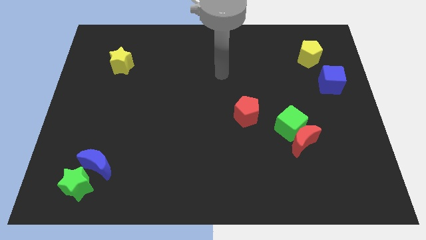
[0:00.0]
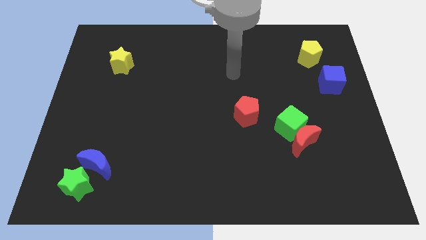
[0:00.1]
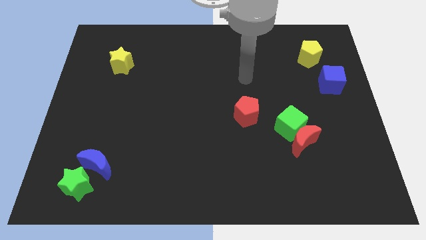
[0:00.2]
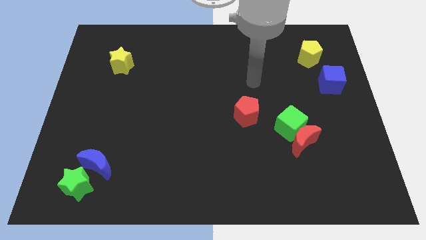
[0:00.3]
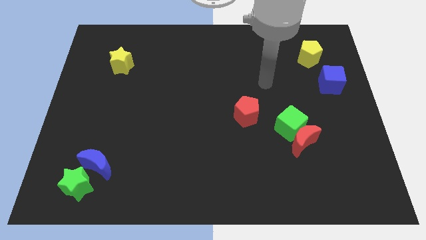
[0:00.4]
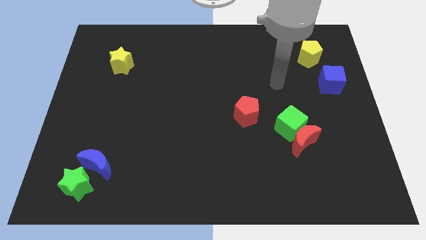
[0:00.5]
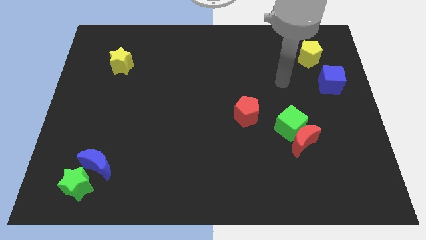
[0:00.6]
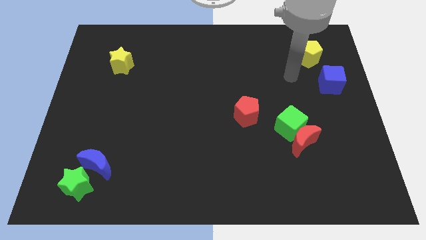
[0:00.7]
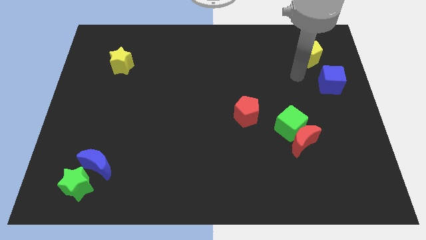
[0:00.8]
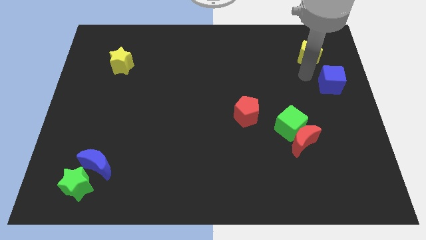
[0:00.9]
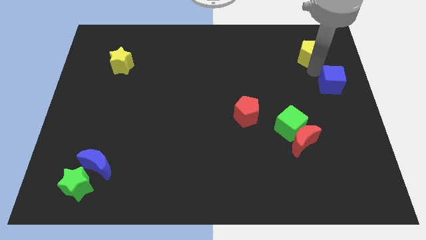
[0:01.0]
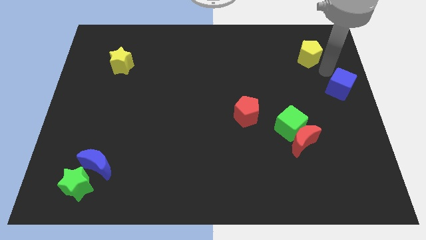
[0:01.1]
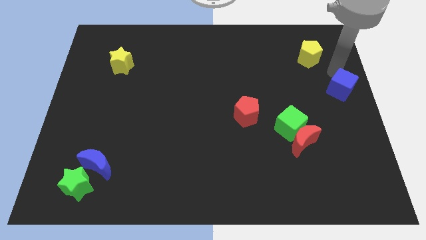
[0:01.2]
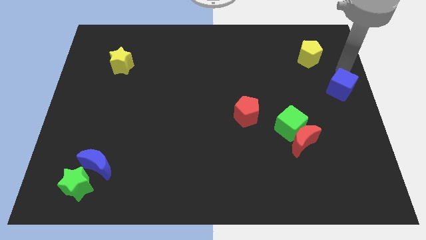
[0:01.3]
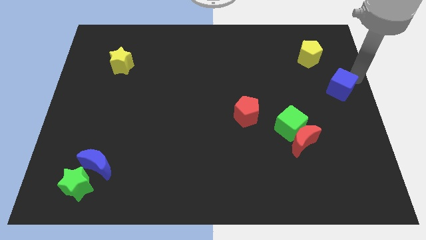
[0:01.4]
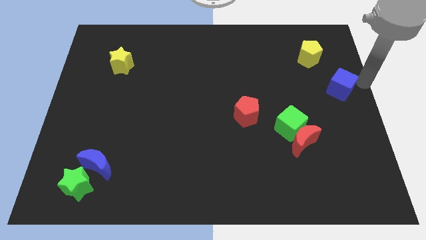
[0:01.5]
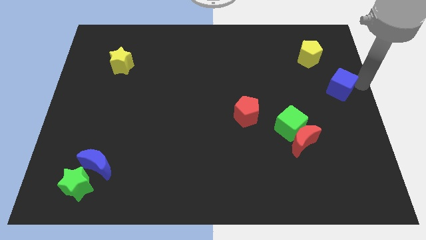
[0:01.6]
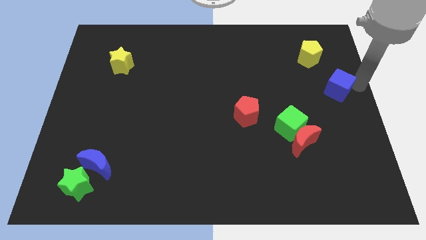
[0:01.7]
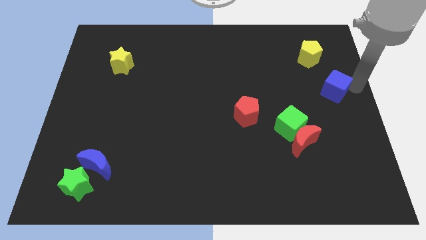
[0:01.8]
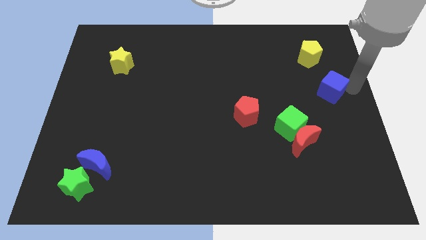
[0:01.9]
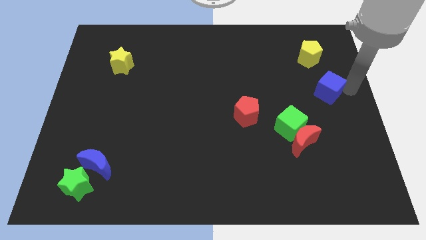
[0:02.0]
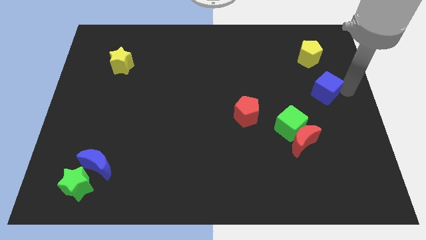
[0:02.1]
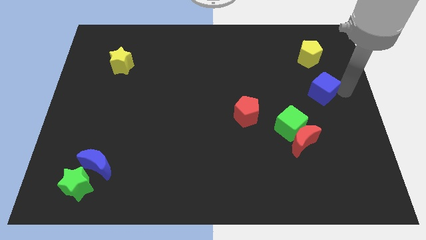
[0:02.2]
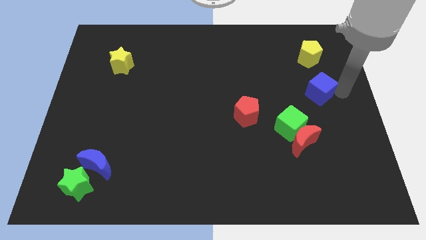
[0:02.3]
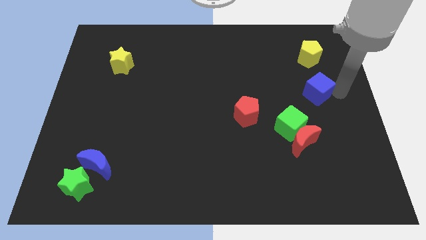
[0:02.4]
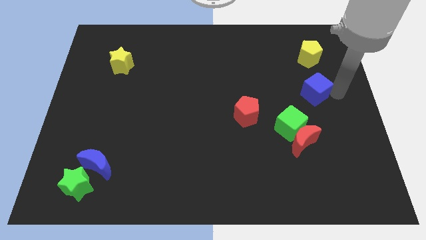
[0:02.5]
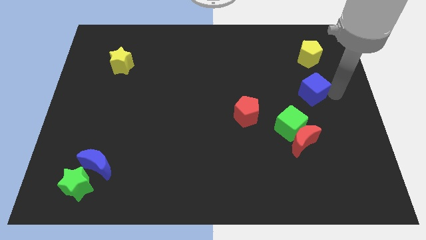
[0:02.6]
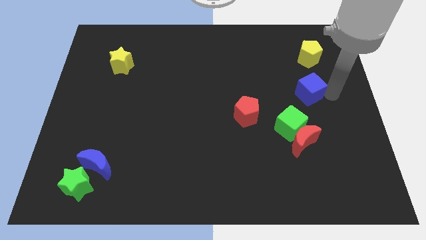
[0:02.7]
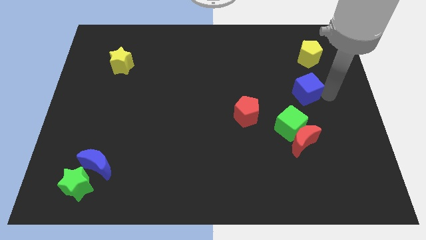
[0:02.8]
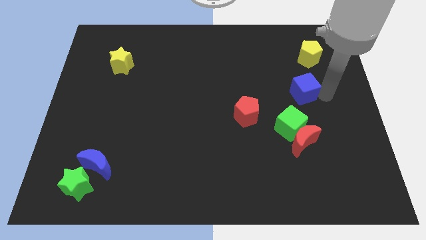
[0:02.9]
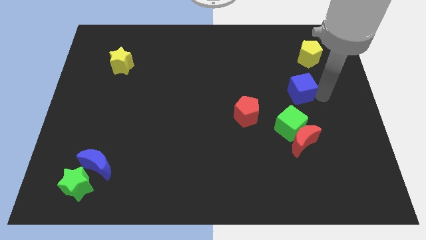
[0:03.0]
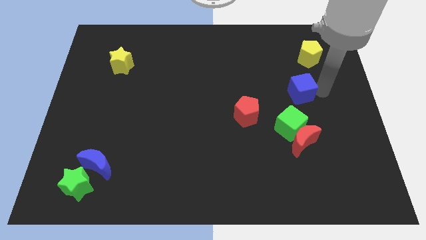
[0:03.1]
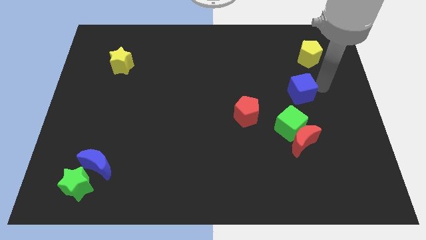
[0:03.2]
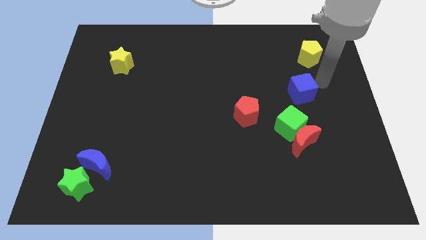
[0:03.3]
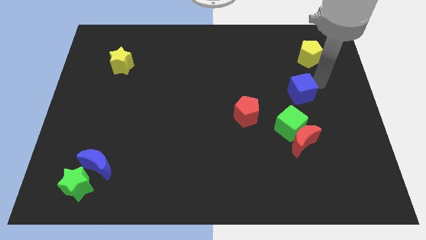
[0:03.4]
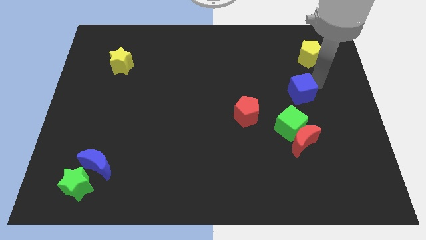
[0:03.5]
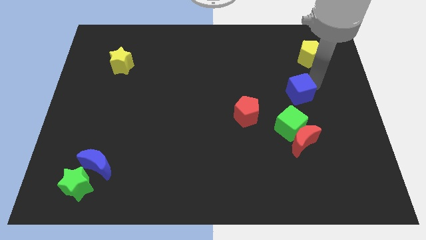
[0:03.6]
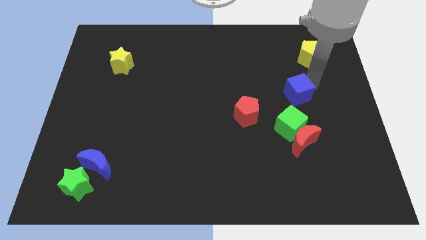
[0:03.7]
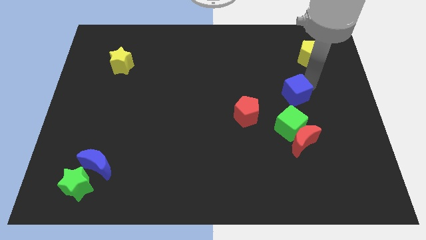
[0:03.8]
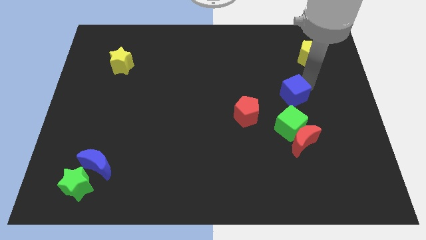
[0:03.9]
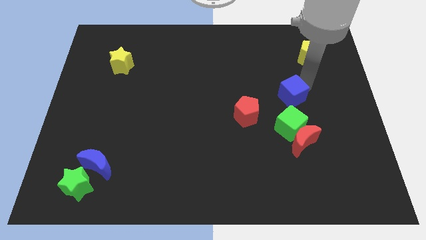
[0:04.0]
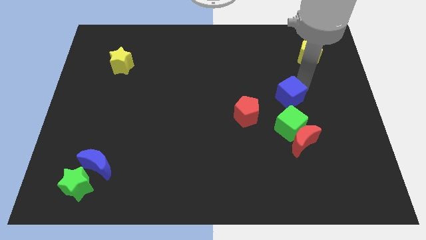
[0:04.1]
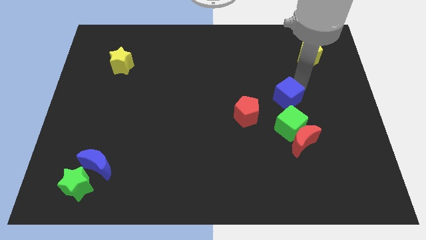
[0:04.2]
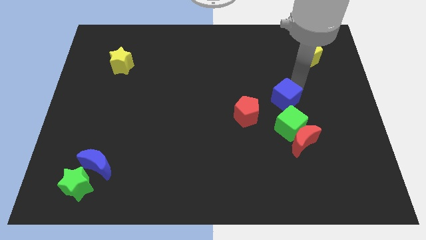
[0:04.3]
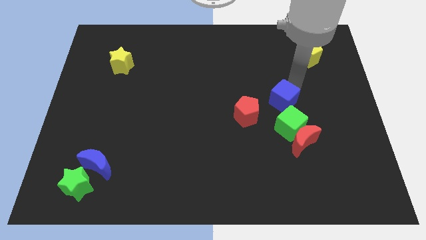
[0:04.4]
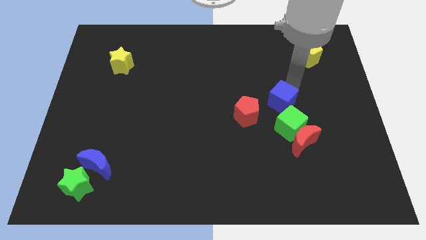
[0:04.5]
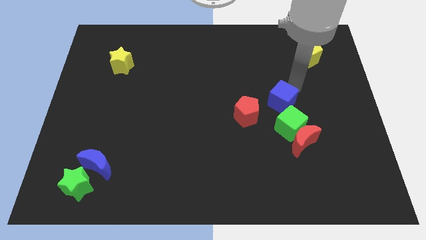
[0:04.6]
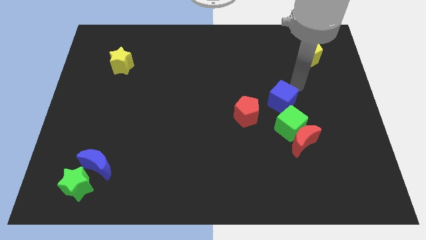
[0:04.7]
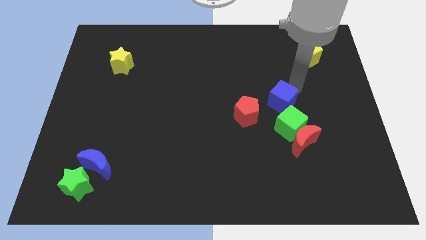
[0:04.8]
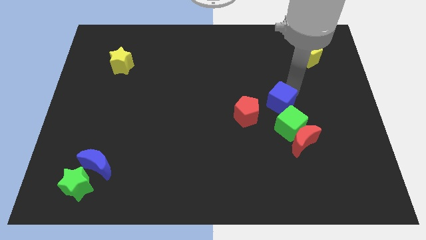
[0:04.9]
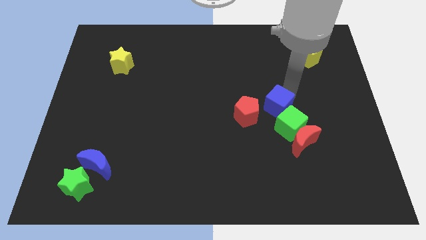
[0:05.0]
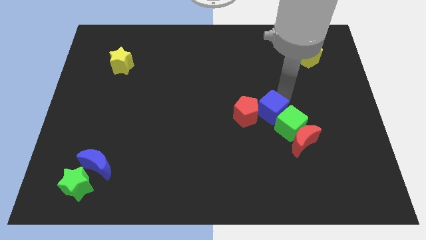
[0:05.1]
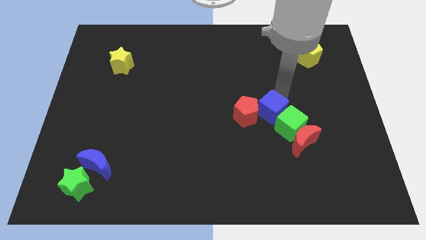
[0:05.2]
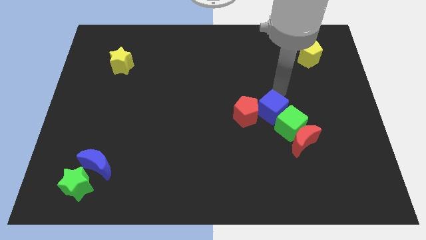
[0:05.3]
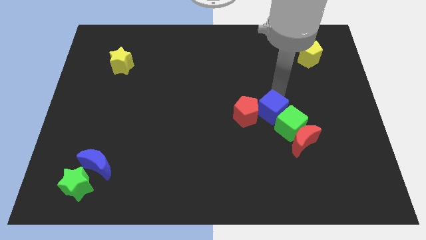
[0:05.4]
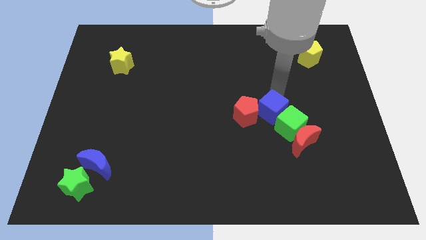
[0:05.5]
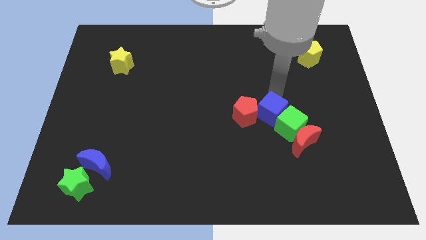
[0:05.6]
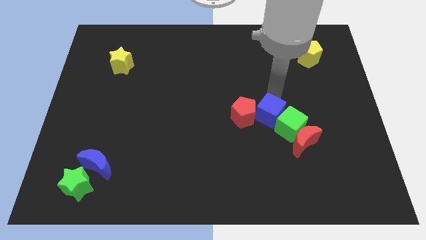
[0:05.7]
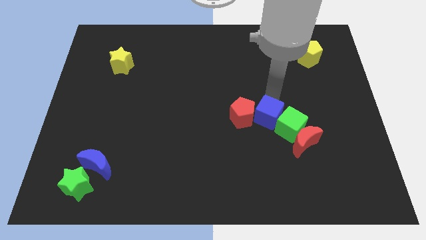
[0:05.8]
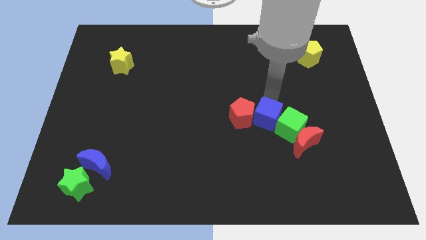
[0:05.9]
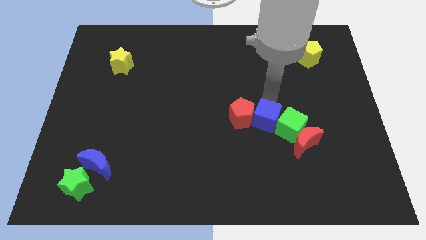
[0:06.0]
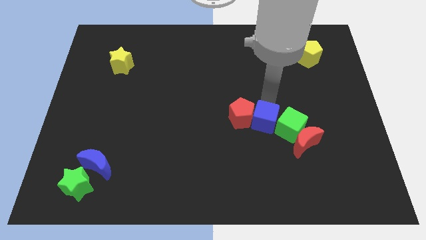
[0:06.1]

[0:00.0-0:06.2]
push the blue cube diagonally down and left

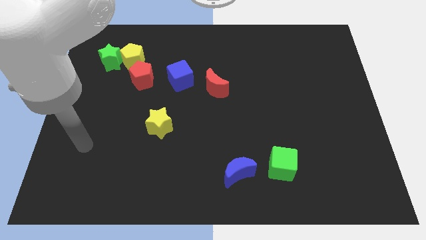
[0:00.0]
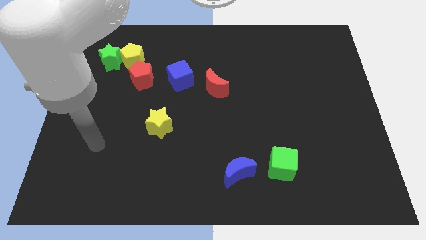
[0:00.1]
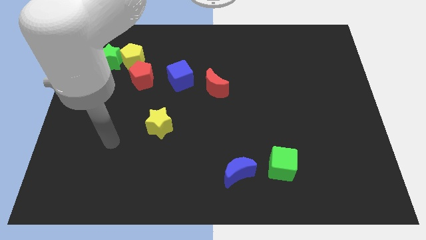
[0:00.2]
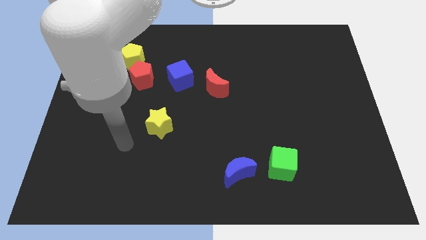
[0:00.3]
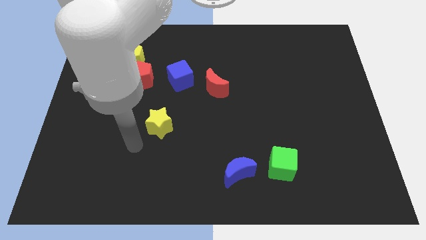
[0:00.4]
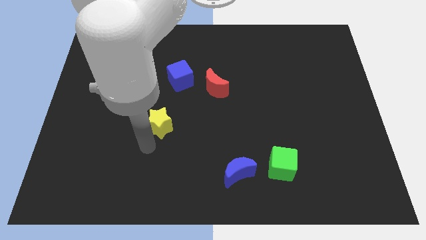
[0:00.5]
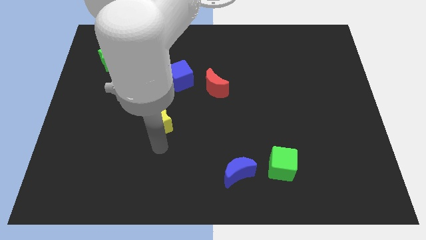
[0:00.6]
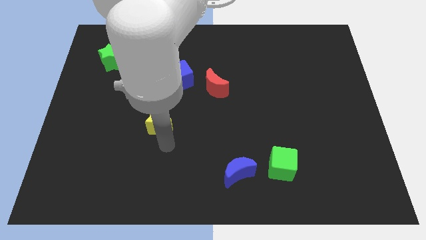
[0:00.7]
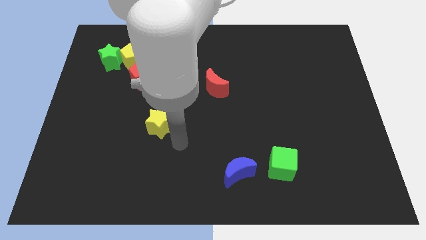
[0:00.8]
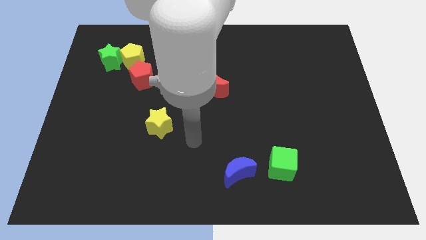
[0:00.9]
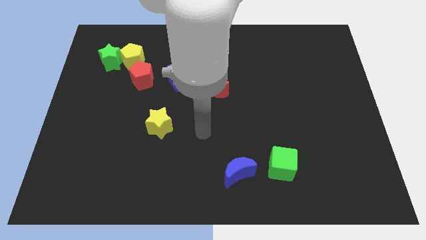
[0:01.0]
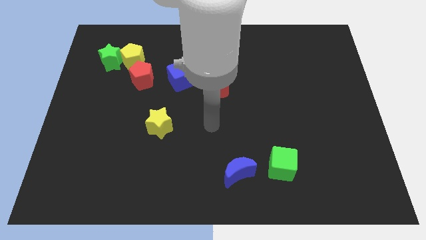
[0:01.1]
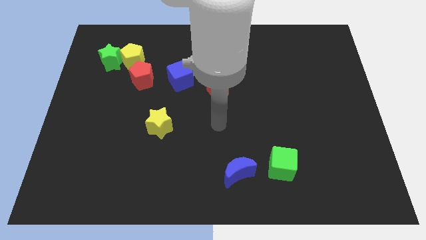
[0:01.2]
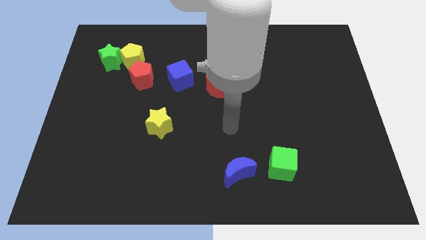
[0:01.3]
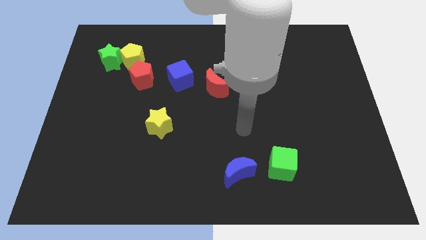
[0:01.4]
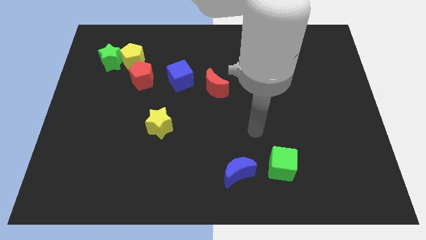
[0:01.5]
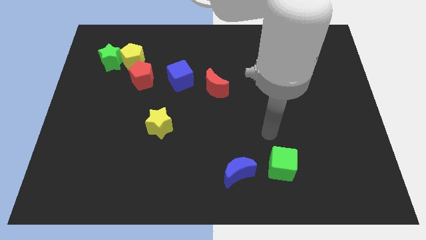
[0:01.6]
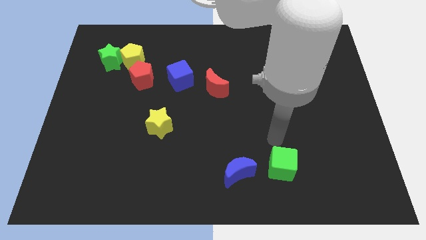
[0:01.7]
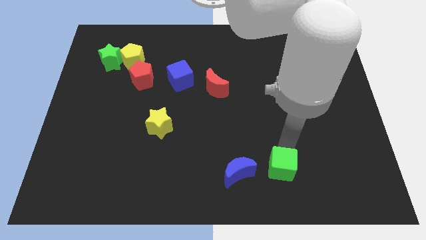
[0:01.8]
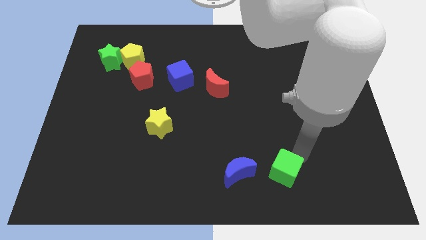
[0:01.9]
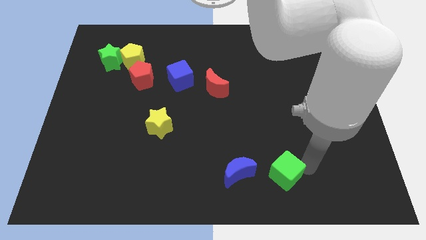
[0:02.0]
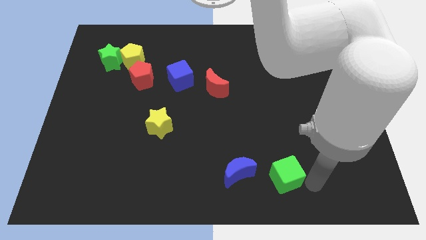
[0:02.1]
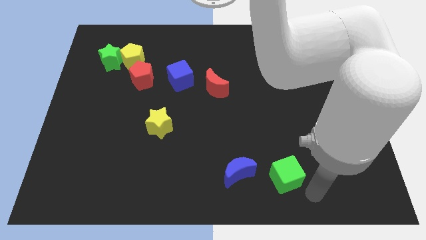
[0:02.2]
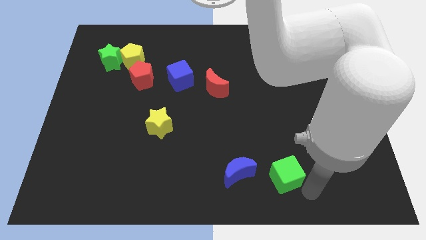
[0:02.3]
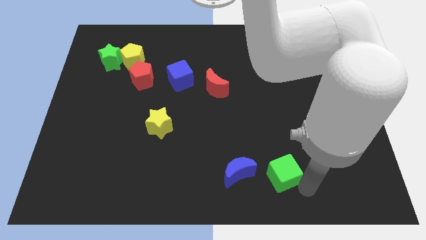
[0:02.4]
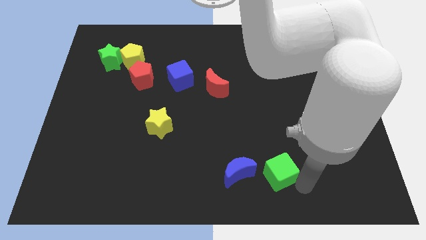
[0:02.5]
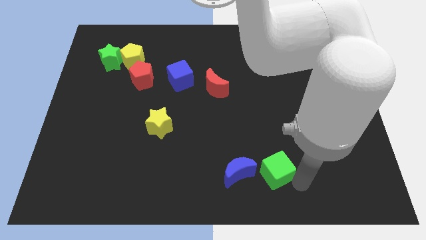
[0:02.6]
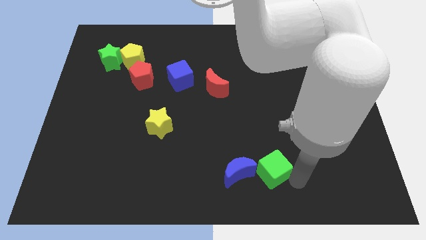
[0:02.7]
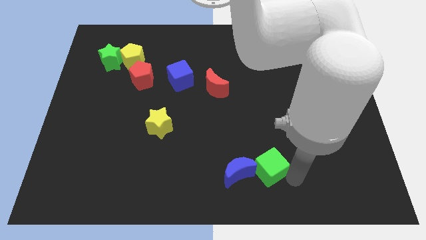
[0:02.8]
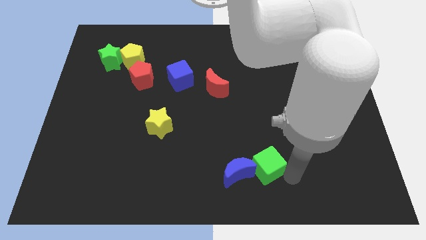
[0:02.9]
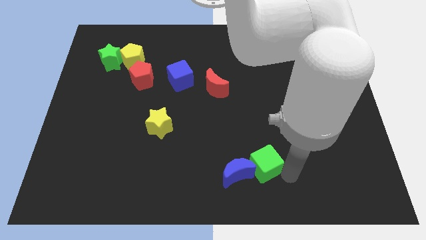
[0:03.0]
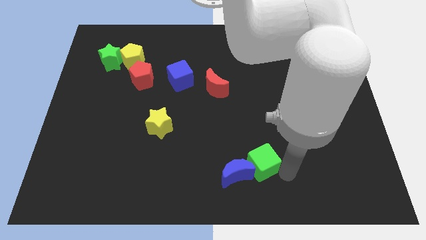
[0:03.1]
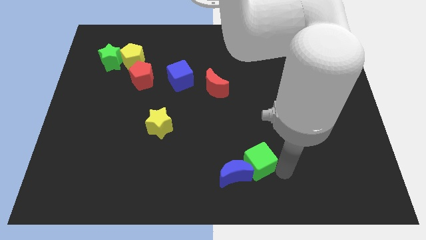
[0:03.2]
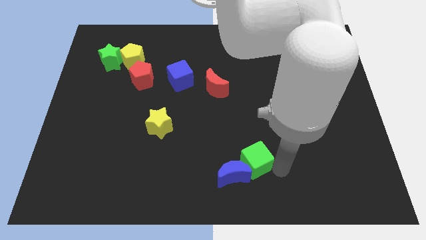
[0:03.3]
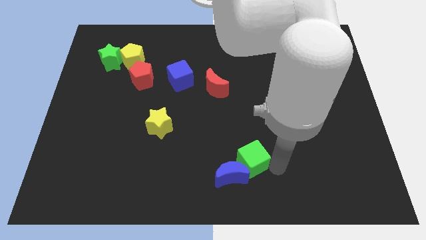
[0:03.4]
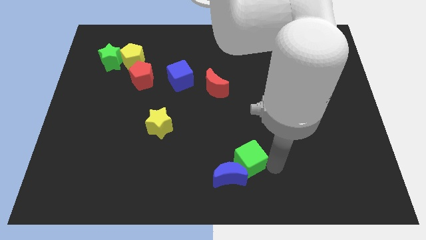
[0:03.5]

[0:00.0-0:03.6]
slightly push the green cube to the left
